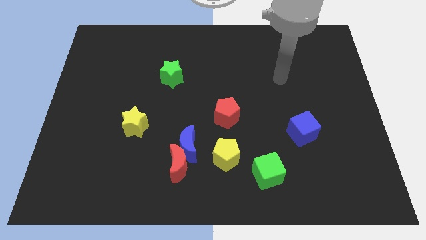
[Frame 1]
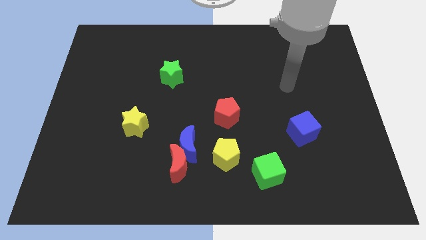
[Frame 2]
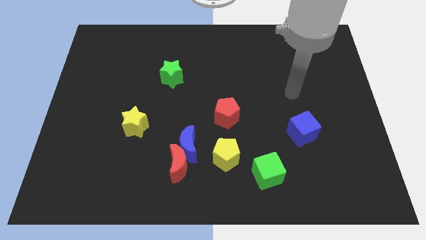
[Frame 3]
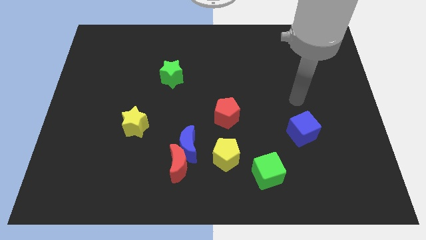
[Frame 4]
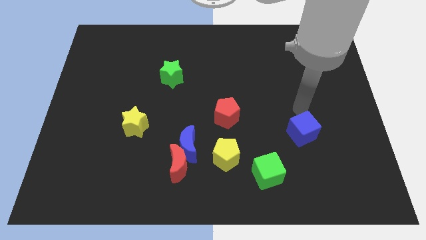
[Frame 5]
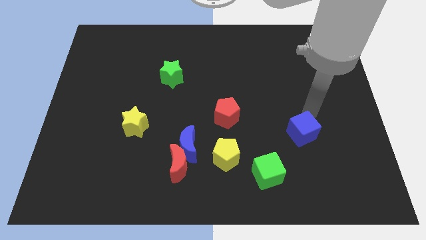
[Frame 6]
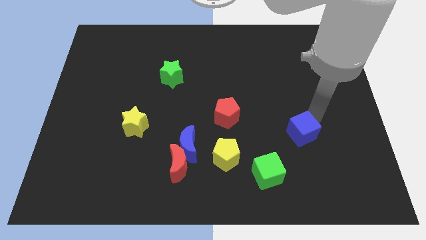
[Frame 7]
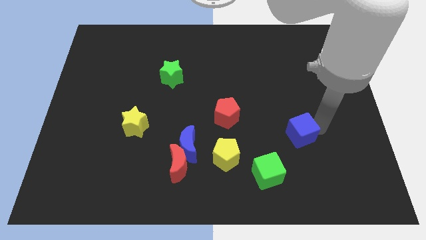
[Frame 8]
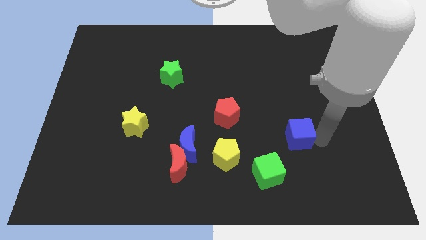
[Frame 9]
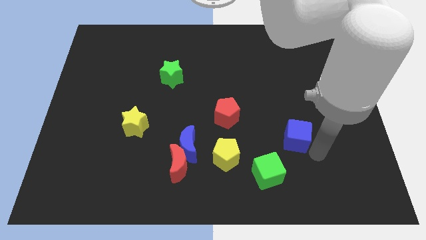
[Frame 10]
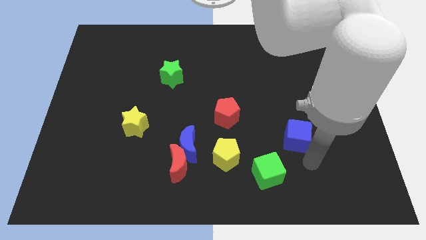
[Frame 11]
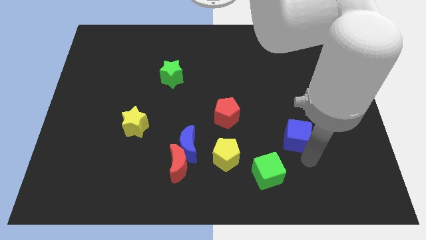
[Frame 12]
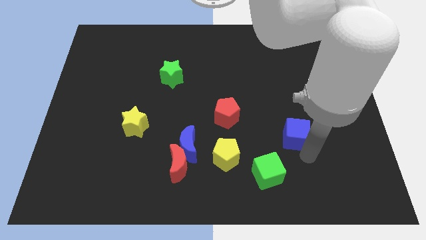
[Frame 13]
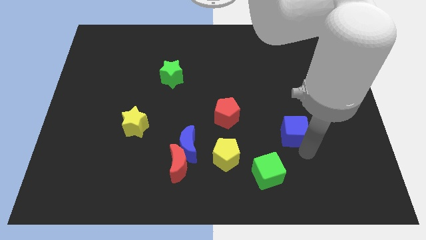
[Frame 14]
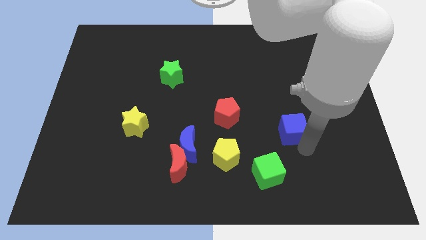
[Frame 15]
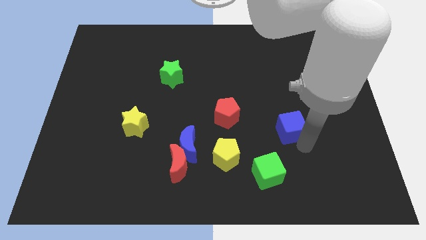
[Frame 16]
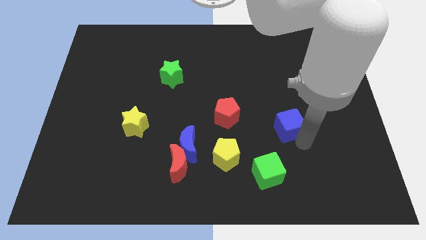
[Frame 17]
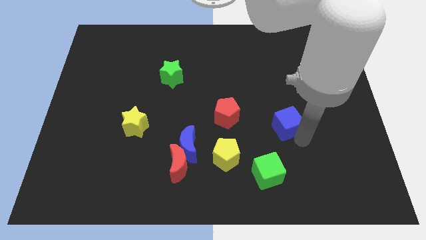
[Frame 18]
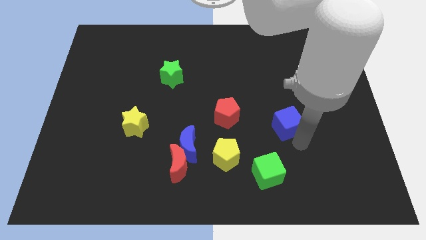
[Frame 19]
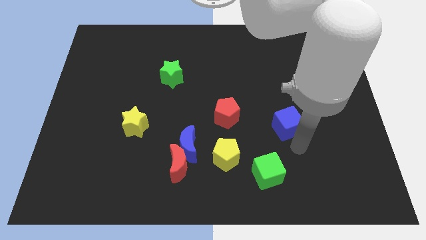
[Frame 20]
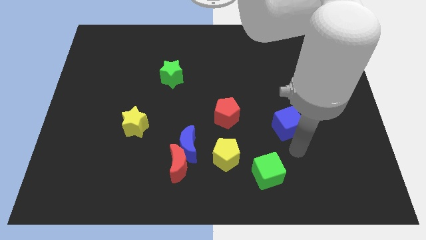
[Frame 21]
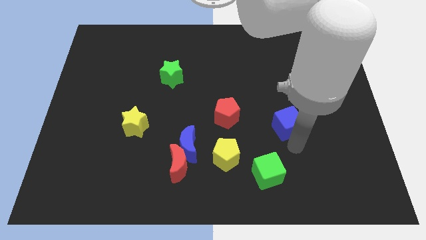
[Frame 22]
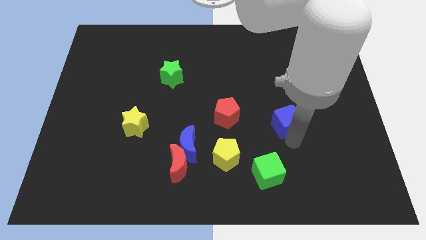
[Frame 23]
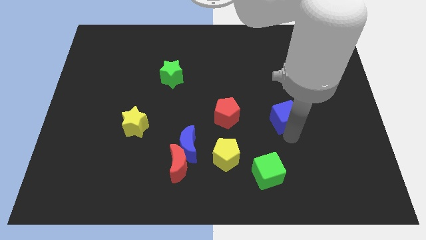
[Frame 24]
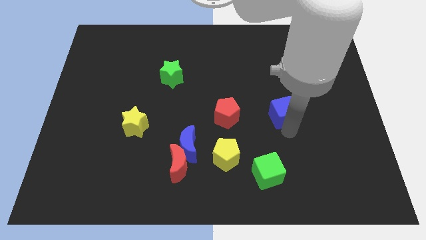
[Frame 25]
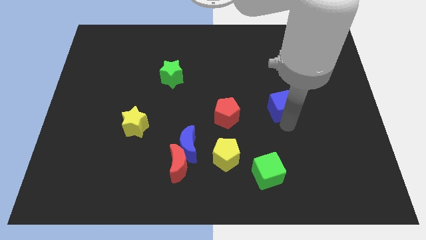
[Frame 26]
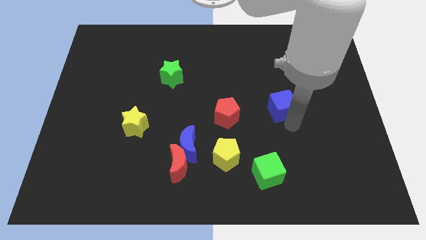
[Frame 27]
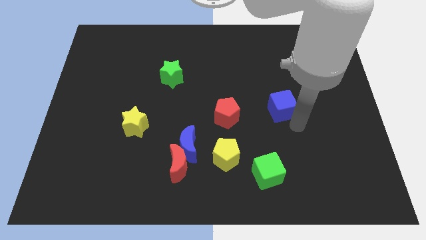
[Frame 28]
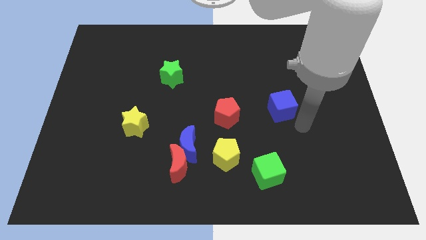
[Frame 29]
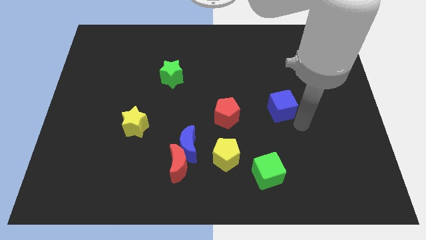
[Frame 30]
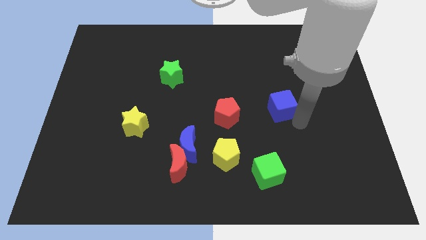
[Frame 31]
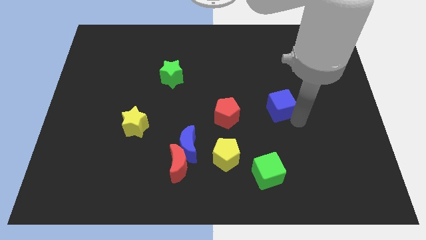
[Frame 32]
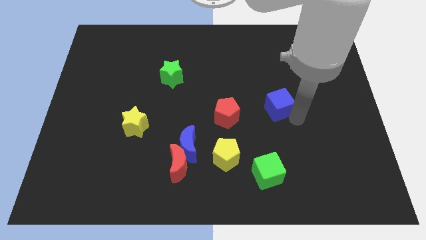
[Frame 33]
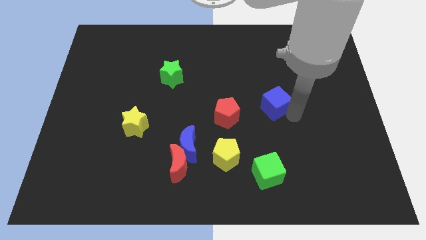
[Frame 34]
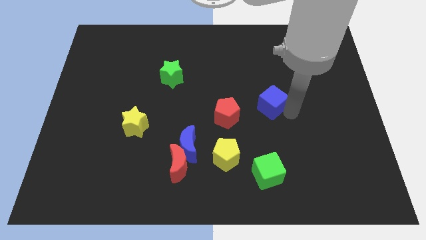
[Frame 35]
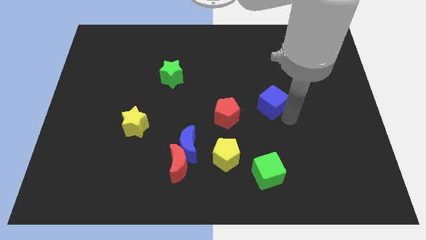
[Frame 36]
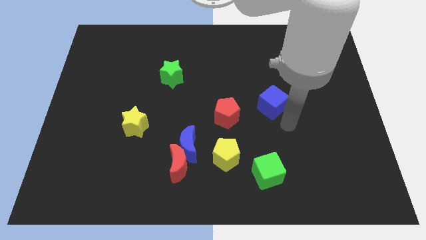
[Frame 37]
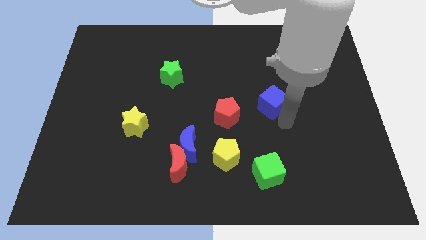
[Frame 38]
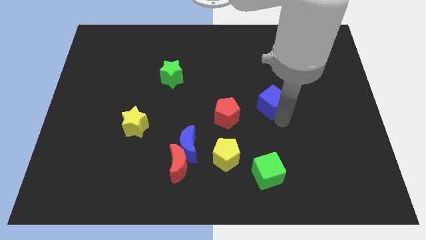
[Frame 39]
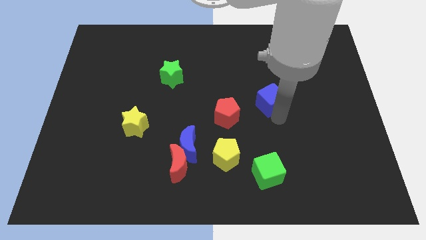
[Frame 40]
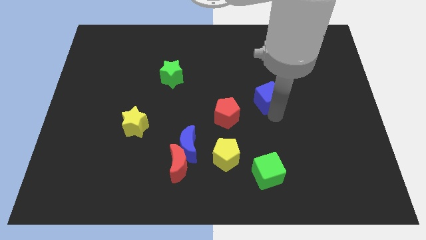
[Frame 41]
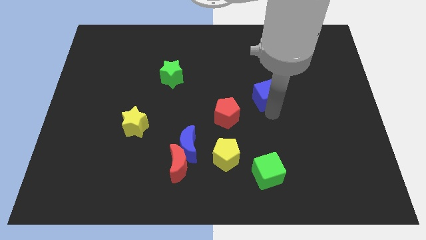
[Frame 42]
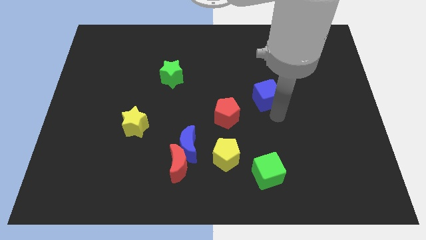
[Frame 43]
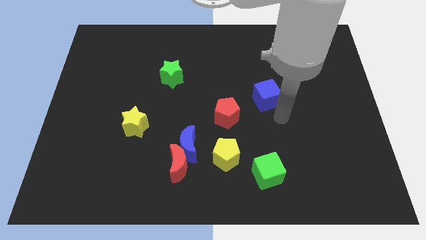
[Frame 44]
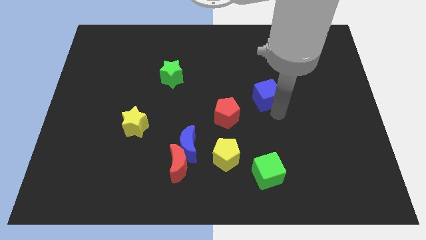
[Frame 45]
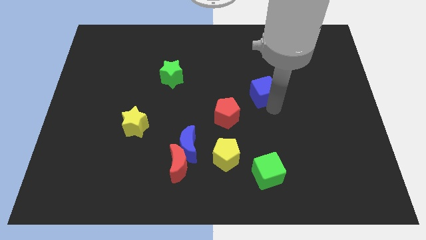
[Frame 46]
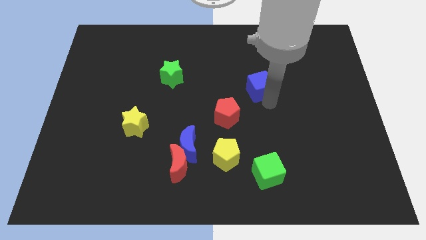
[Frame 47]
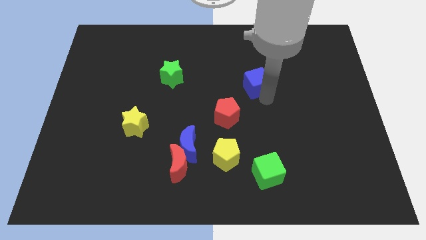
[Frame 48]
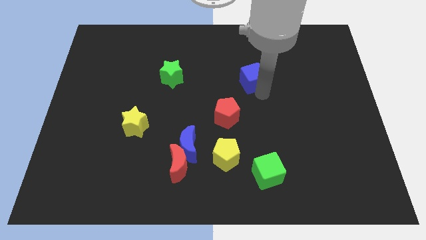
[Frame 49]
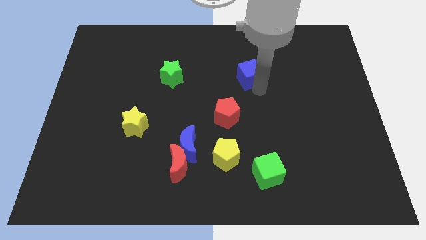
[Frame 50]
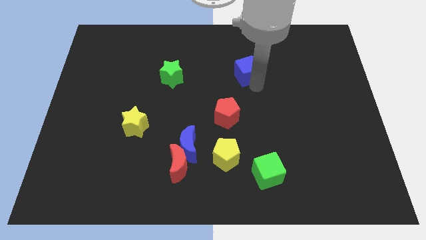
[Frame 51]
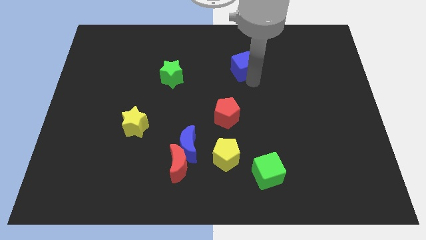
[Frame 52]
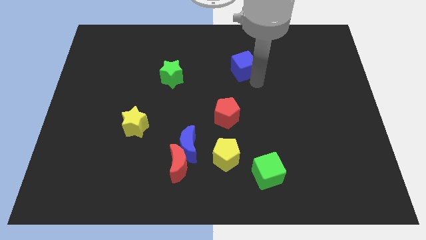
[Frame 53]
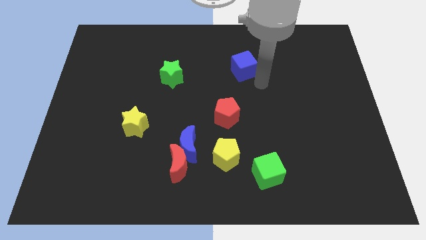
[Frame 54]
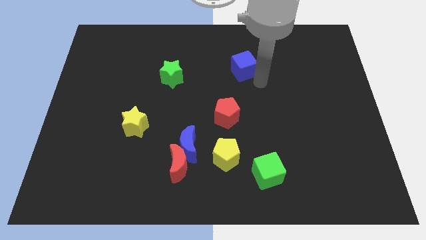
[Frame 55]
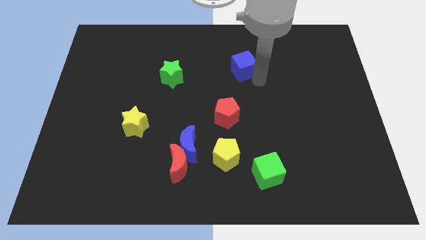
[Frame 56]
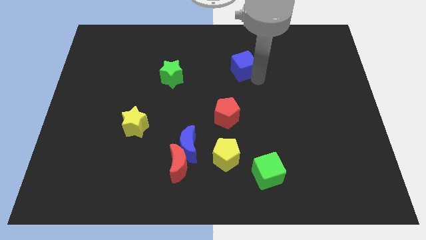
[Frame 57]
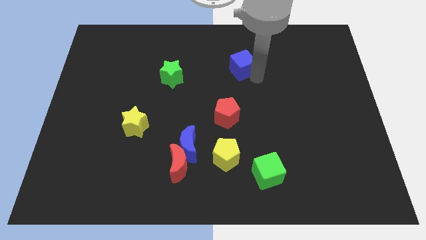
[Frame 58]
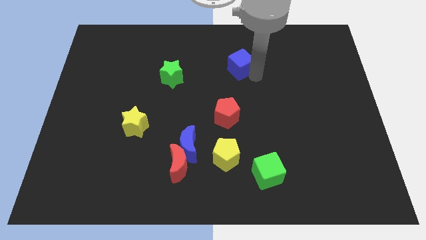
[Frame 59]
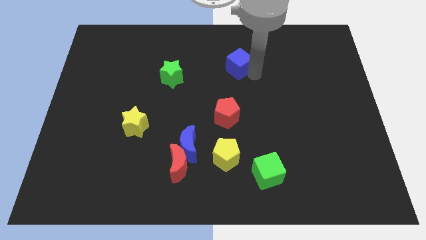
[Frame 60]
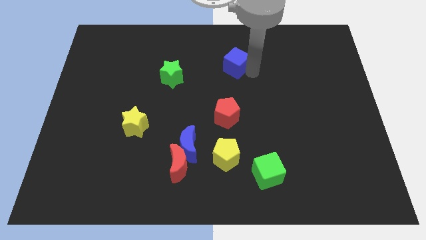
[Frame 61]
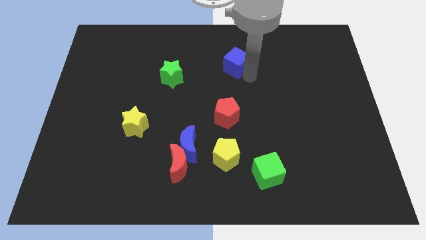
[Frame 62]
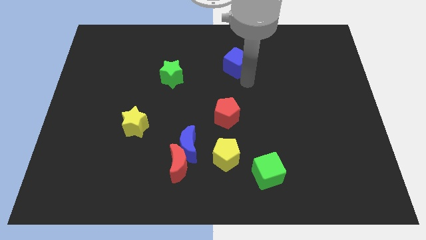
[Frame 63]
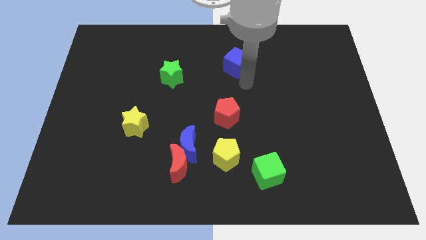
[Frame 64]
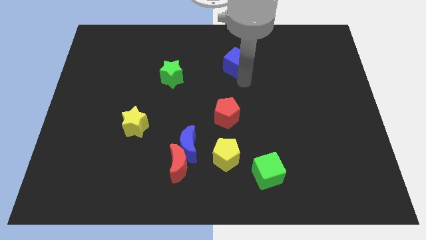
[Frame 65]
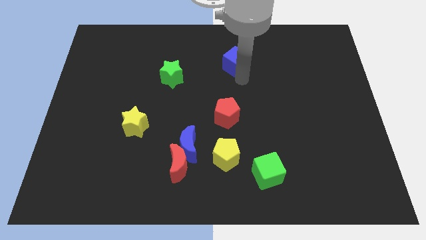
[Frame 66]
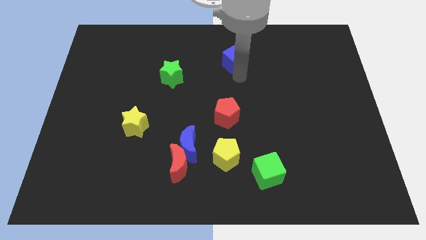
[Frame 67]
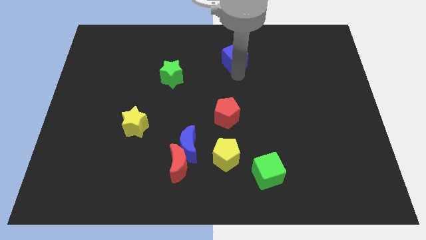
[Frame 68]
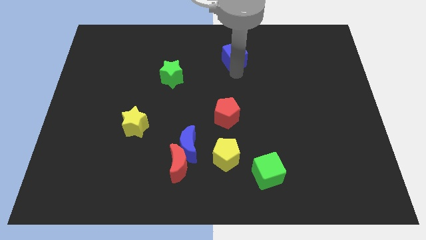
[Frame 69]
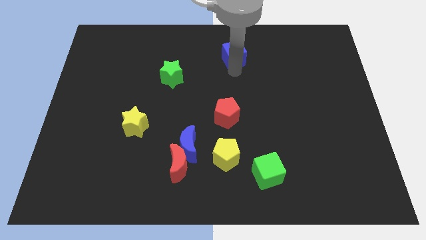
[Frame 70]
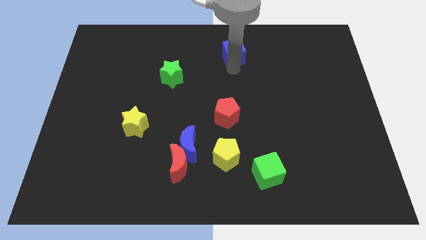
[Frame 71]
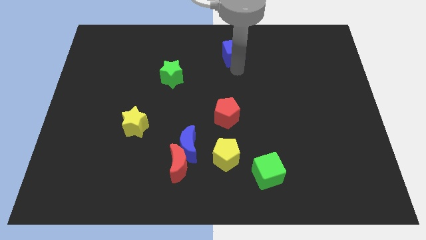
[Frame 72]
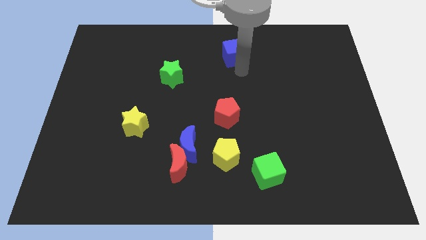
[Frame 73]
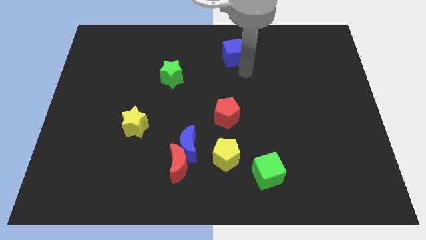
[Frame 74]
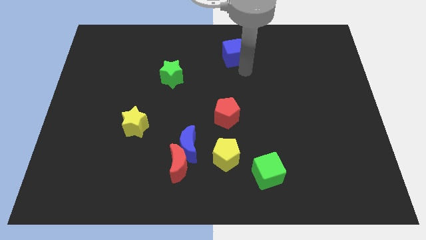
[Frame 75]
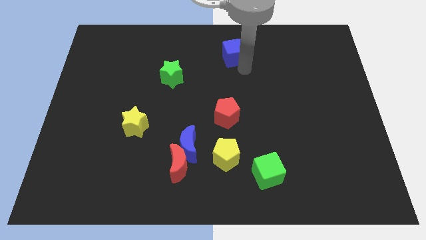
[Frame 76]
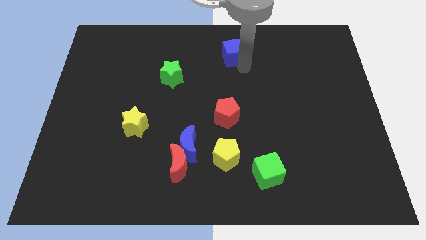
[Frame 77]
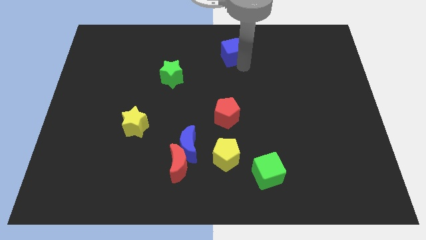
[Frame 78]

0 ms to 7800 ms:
move the blue cube to the towards your base
